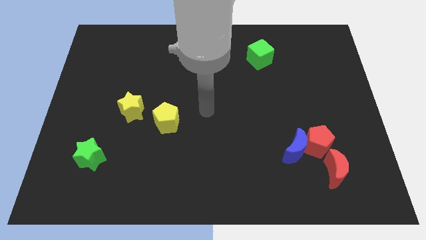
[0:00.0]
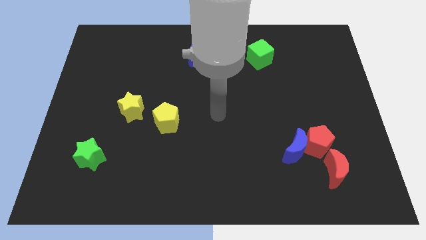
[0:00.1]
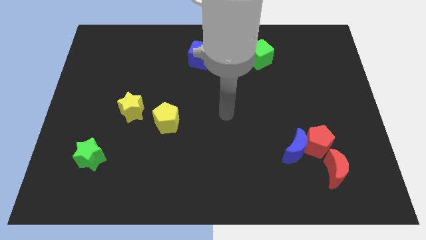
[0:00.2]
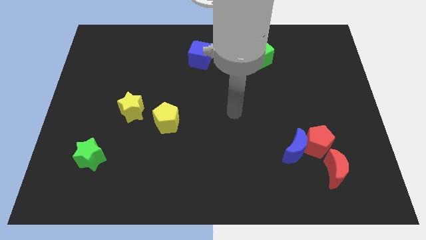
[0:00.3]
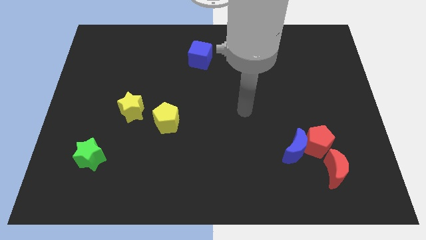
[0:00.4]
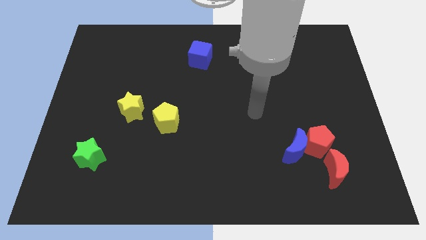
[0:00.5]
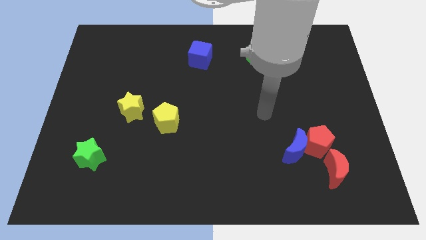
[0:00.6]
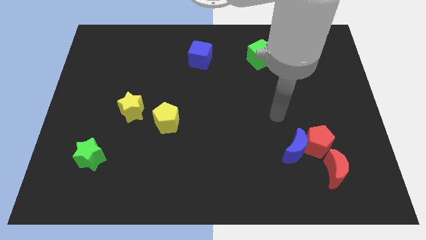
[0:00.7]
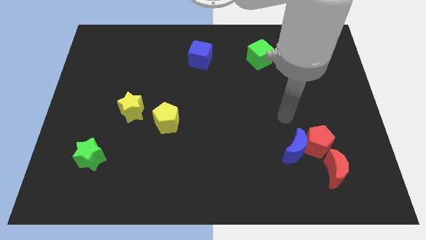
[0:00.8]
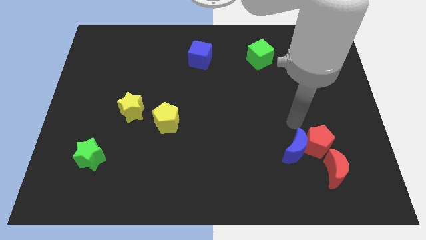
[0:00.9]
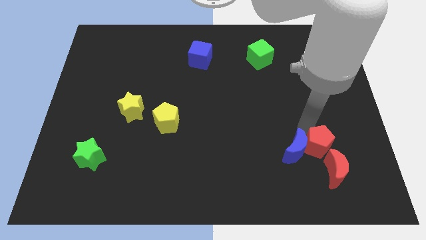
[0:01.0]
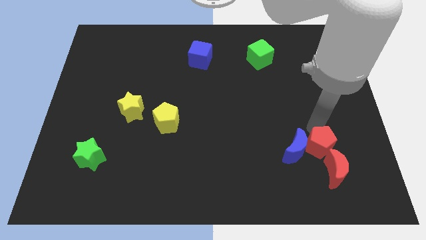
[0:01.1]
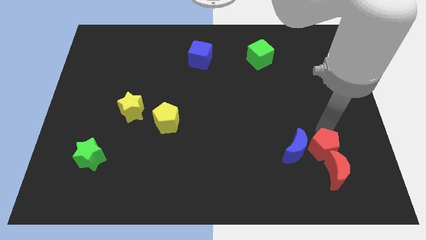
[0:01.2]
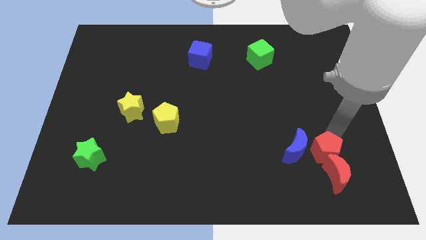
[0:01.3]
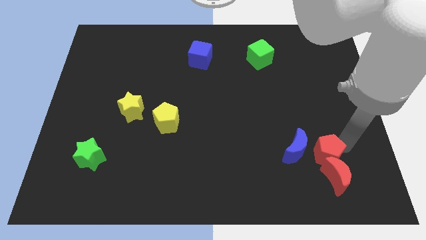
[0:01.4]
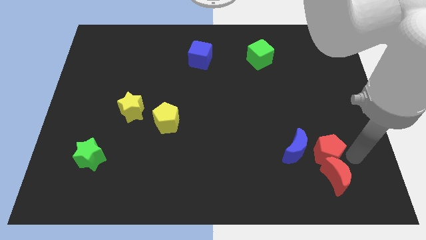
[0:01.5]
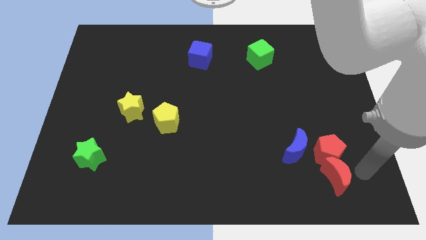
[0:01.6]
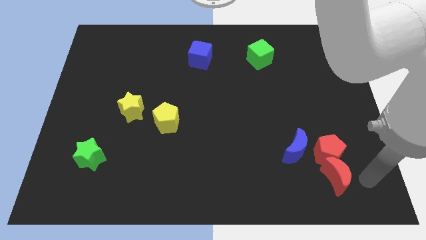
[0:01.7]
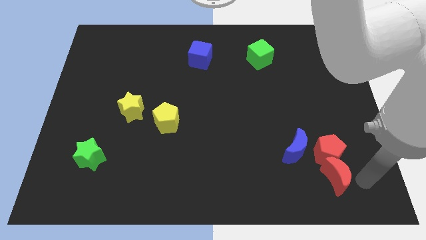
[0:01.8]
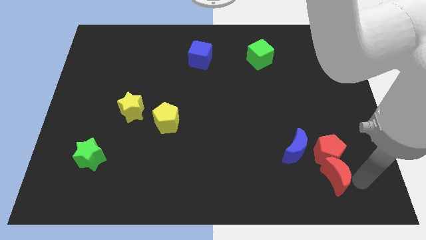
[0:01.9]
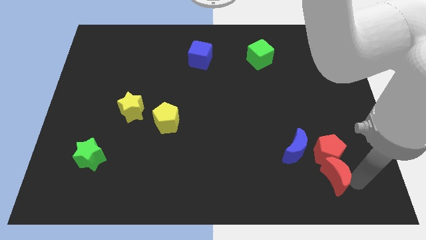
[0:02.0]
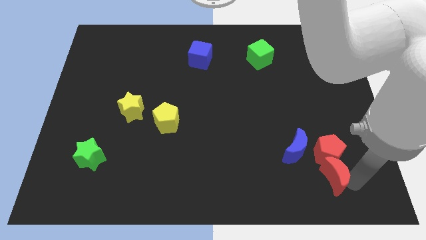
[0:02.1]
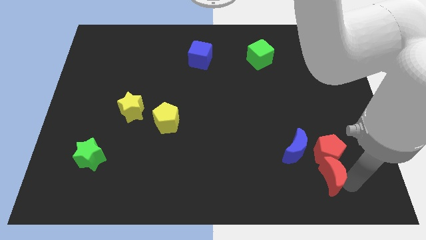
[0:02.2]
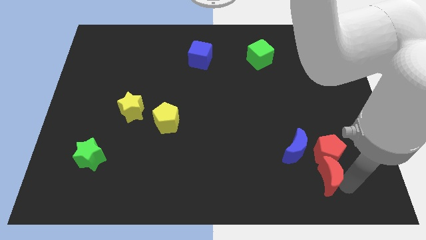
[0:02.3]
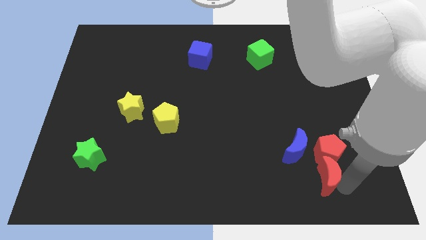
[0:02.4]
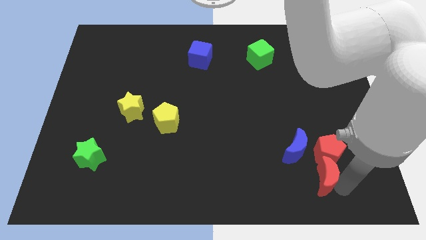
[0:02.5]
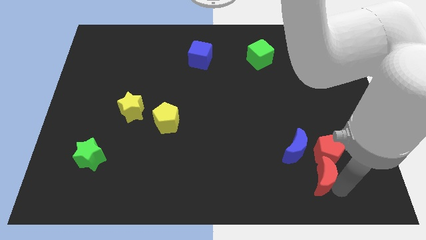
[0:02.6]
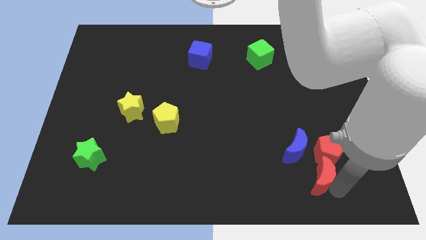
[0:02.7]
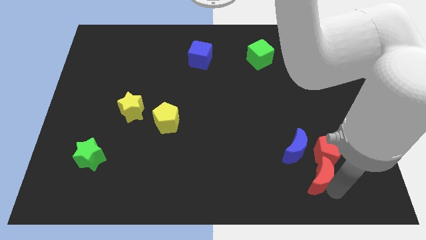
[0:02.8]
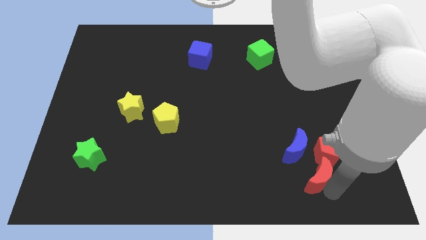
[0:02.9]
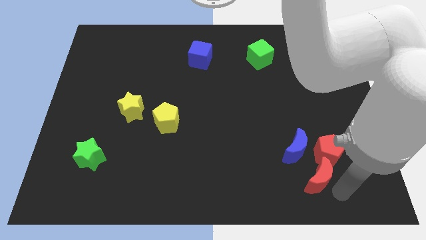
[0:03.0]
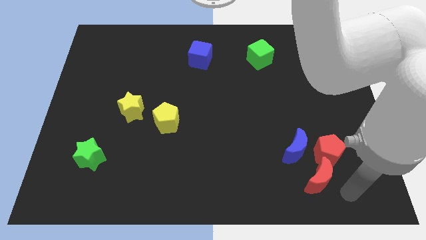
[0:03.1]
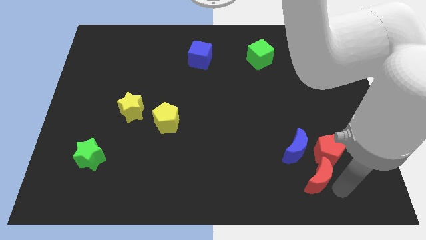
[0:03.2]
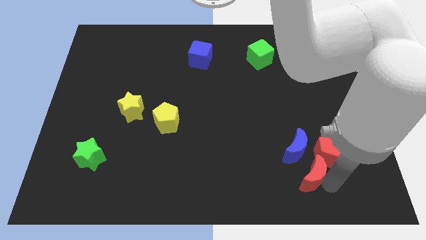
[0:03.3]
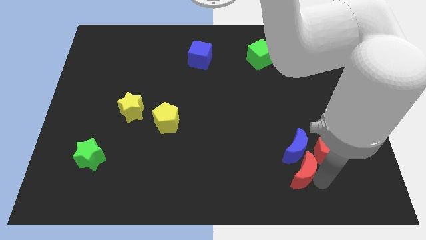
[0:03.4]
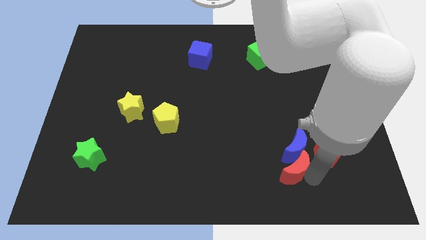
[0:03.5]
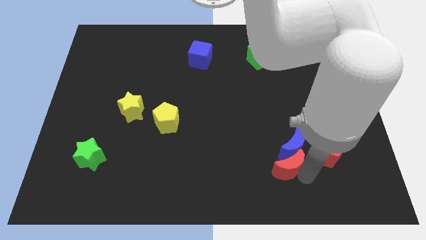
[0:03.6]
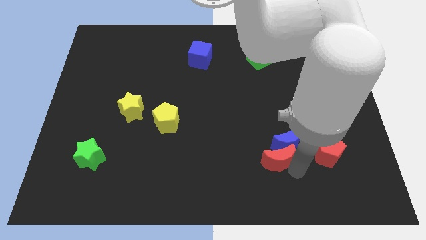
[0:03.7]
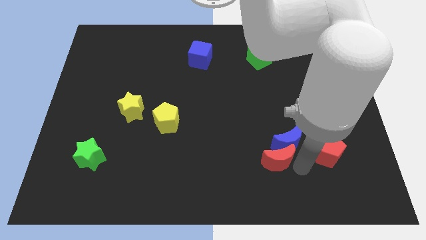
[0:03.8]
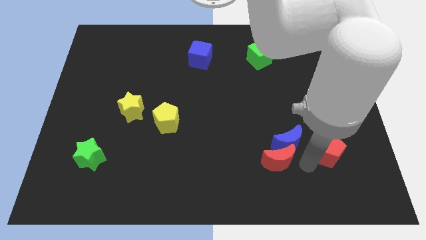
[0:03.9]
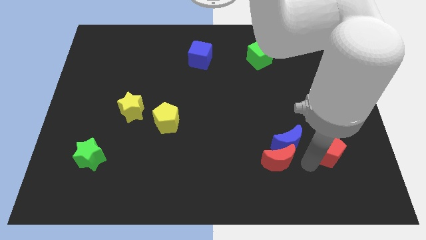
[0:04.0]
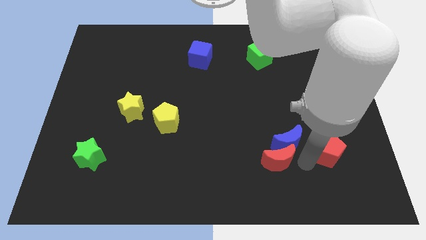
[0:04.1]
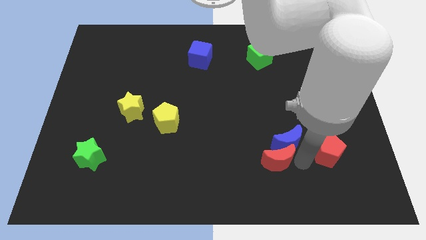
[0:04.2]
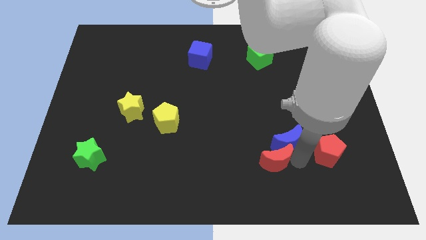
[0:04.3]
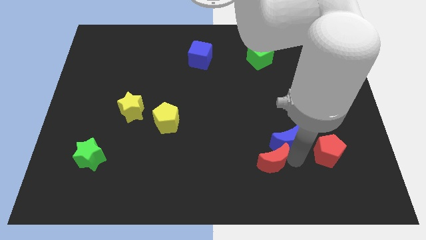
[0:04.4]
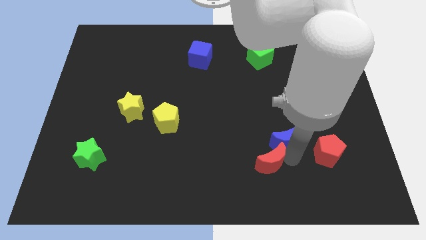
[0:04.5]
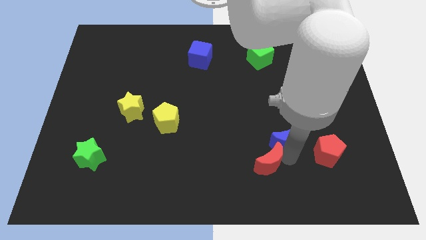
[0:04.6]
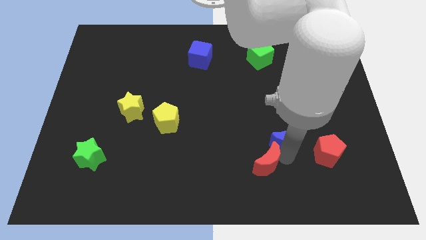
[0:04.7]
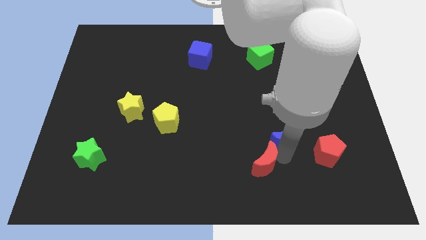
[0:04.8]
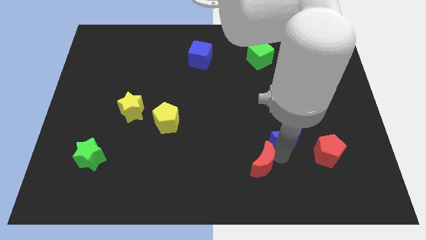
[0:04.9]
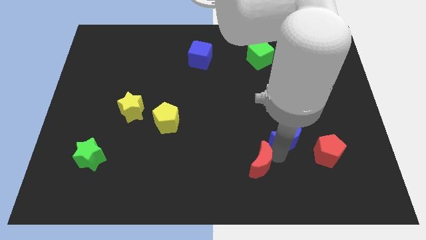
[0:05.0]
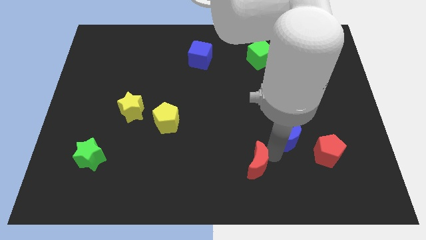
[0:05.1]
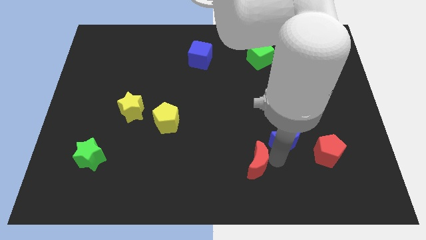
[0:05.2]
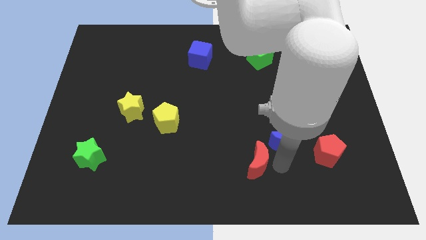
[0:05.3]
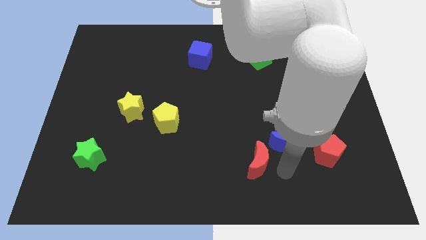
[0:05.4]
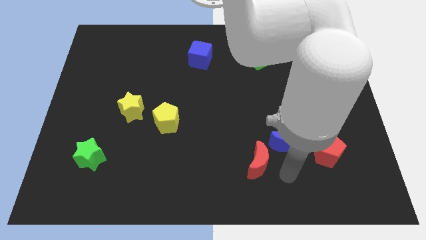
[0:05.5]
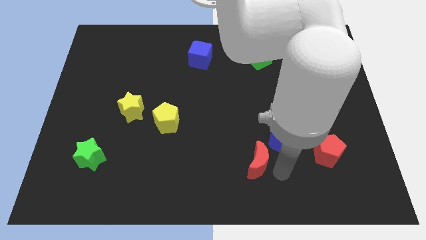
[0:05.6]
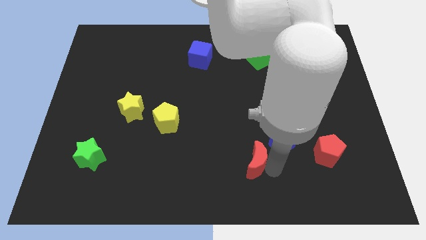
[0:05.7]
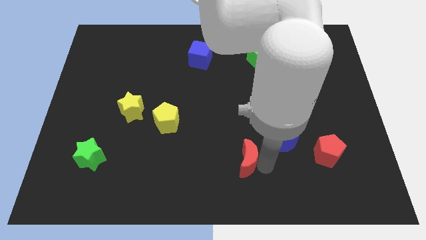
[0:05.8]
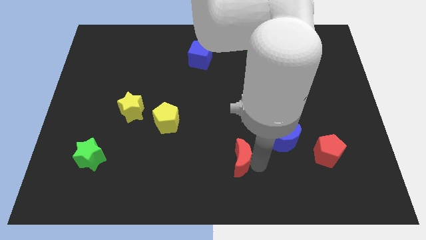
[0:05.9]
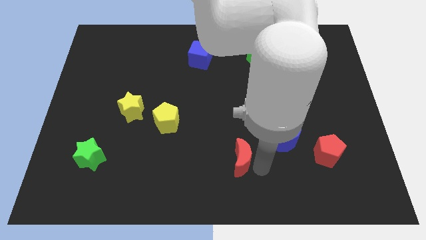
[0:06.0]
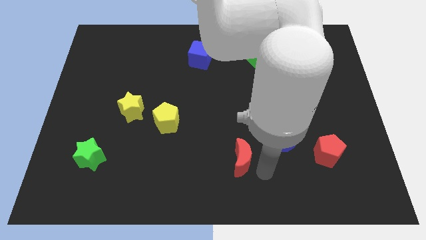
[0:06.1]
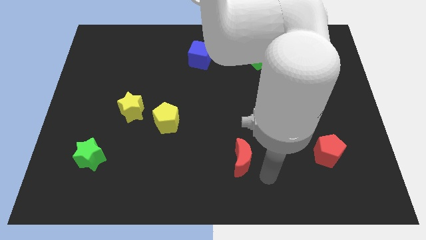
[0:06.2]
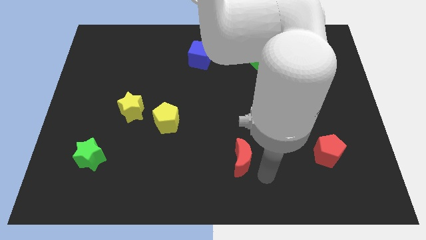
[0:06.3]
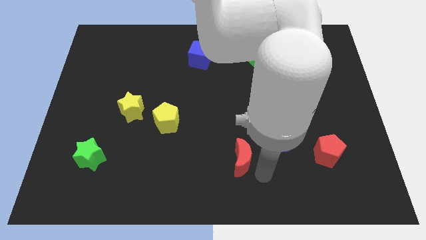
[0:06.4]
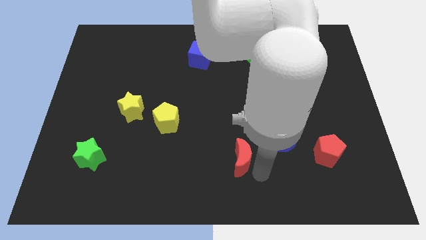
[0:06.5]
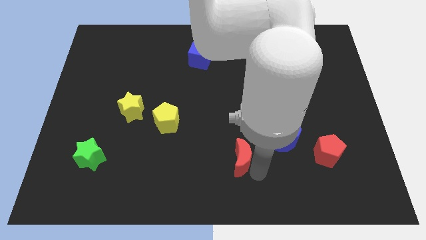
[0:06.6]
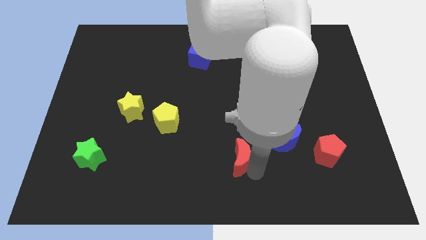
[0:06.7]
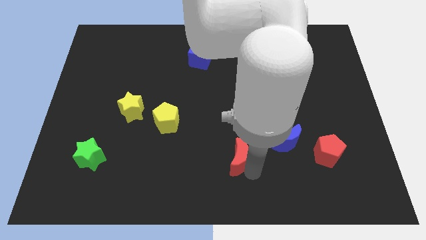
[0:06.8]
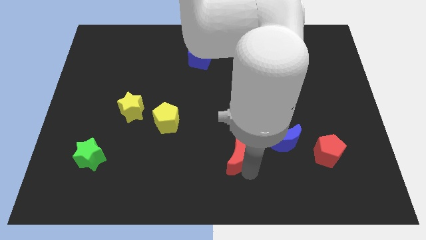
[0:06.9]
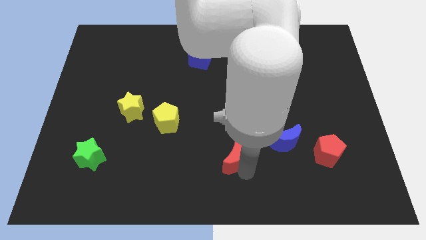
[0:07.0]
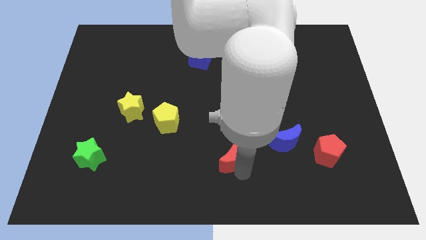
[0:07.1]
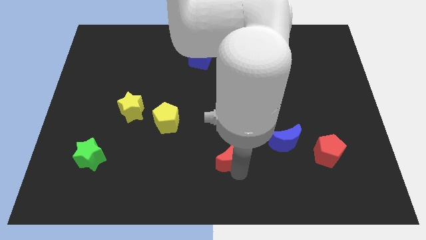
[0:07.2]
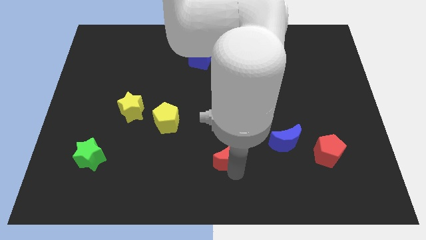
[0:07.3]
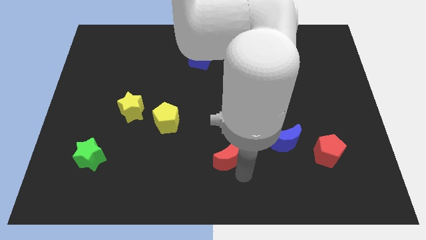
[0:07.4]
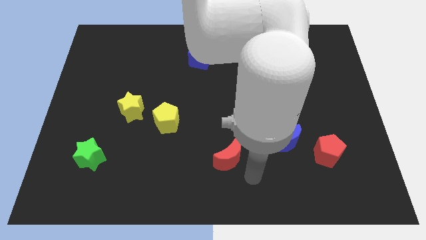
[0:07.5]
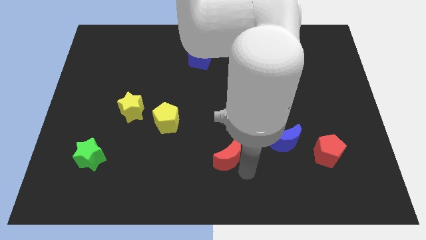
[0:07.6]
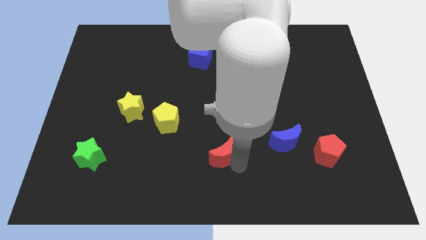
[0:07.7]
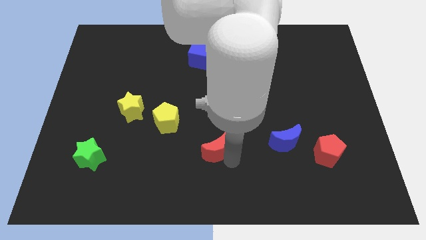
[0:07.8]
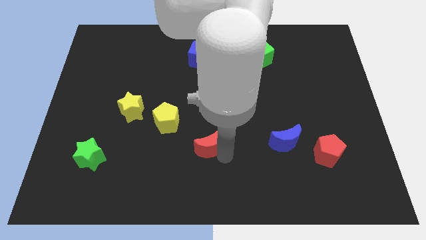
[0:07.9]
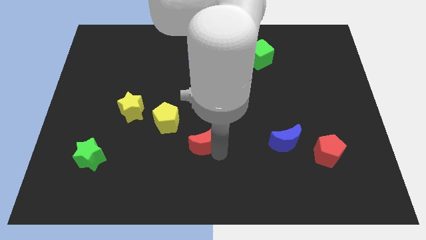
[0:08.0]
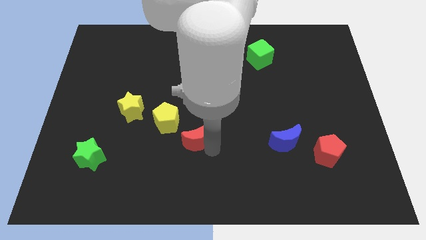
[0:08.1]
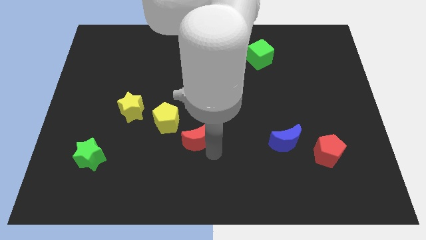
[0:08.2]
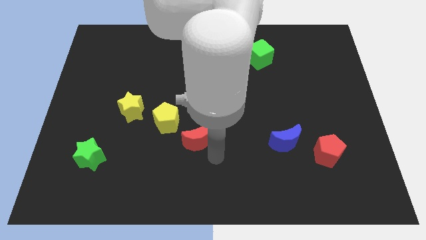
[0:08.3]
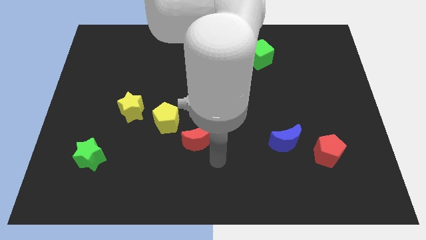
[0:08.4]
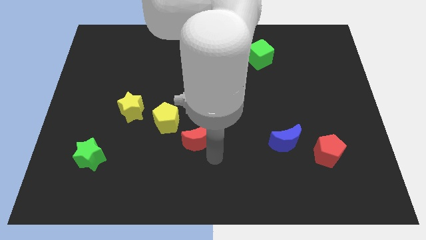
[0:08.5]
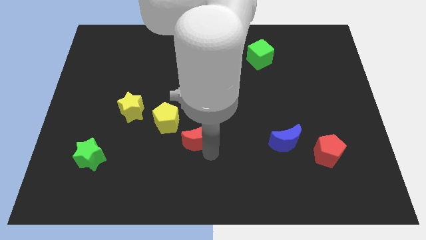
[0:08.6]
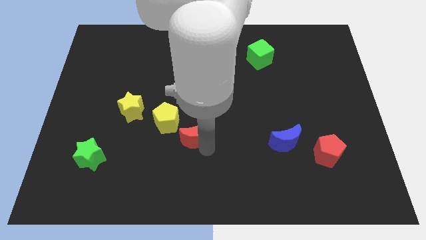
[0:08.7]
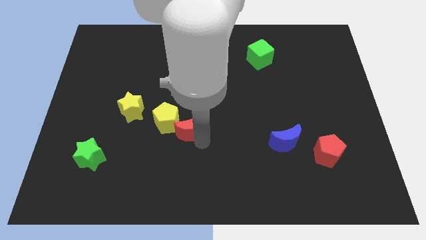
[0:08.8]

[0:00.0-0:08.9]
put the red moon next to the yellow pentagon
